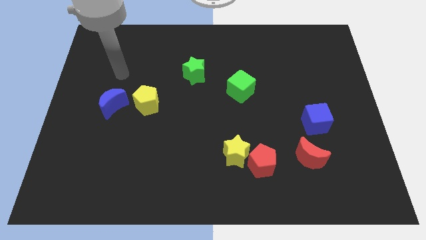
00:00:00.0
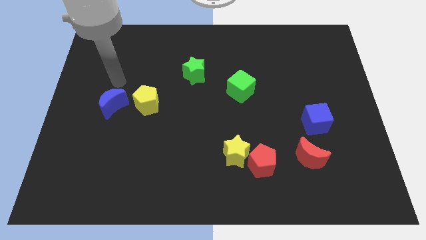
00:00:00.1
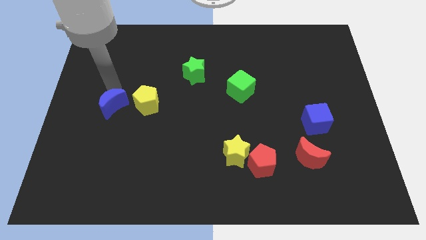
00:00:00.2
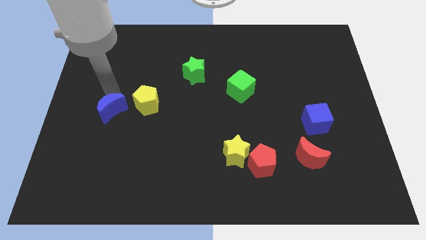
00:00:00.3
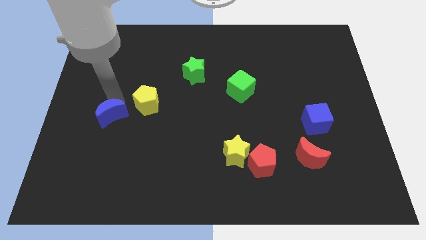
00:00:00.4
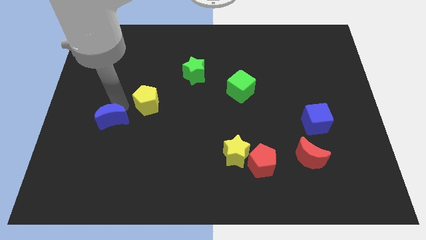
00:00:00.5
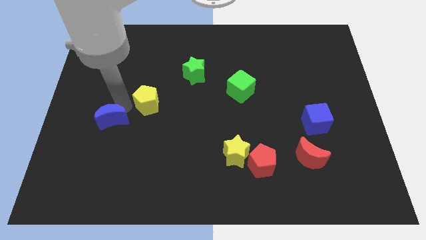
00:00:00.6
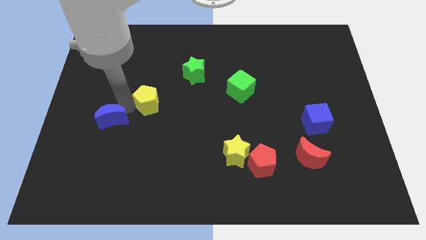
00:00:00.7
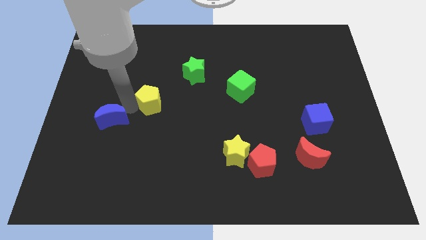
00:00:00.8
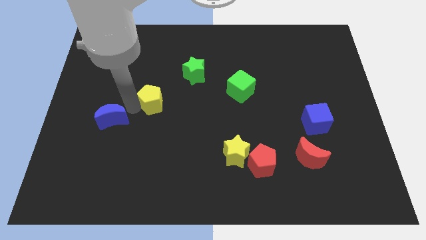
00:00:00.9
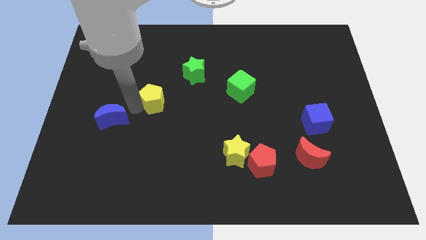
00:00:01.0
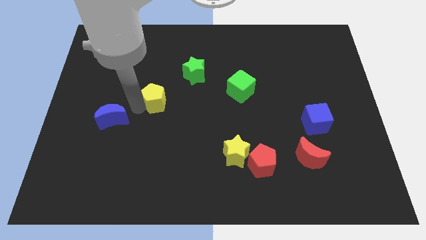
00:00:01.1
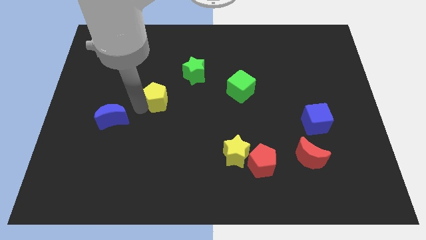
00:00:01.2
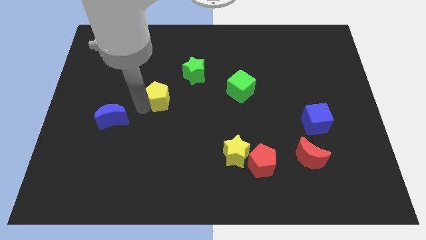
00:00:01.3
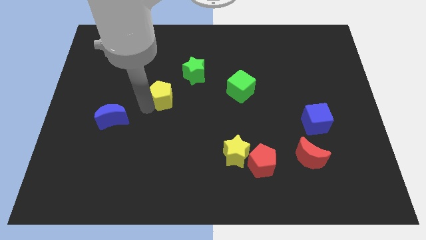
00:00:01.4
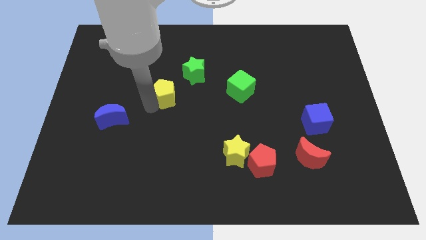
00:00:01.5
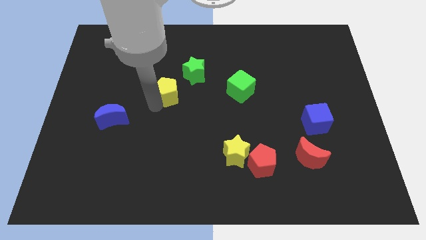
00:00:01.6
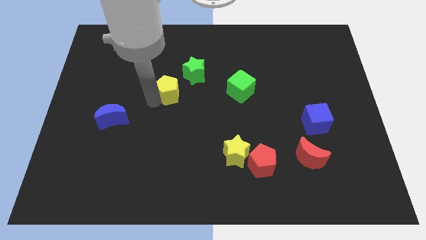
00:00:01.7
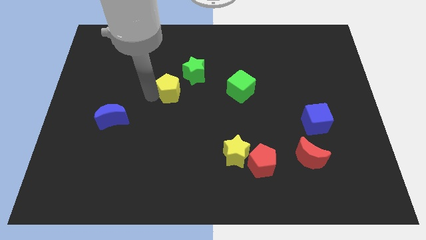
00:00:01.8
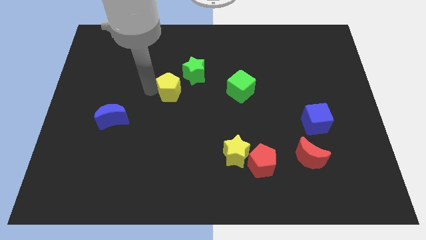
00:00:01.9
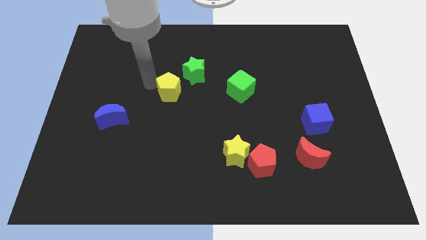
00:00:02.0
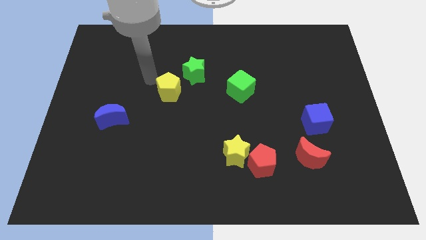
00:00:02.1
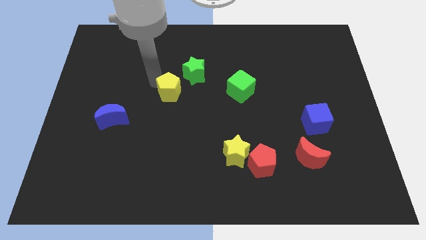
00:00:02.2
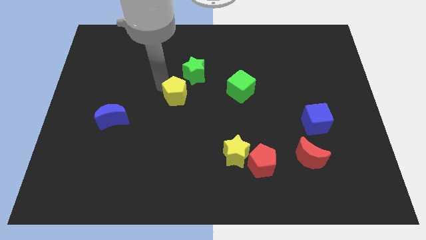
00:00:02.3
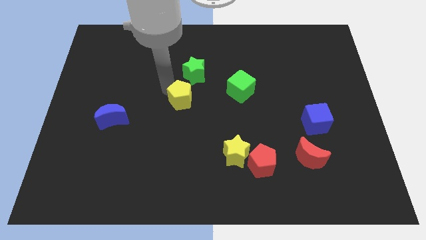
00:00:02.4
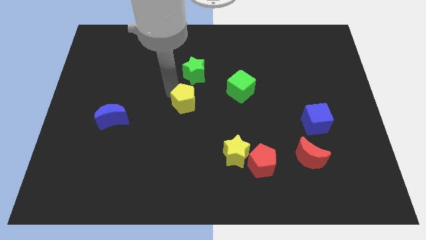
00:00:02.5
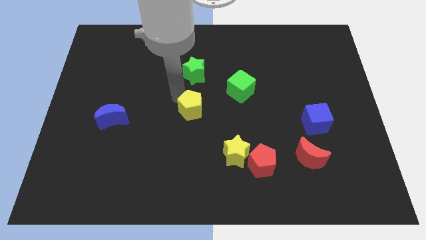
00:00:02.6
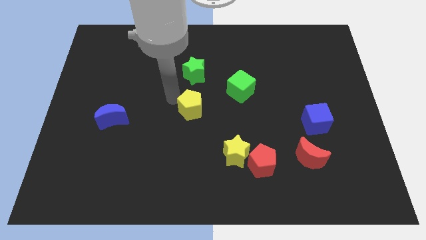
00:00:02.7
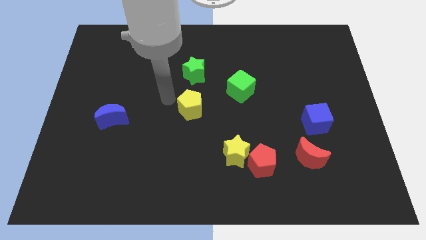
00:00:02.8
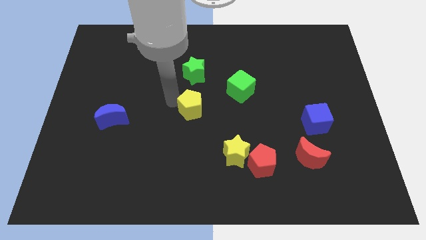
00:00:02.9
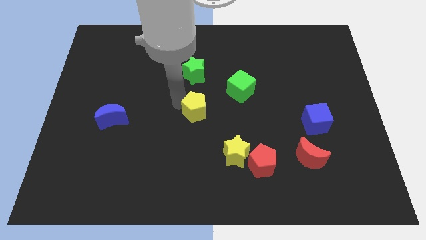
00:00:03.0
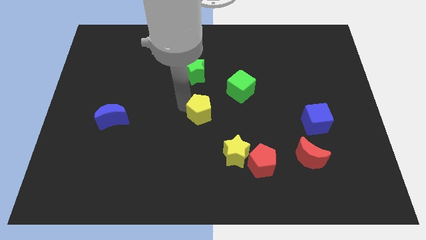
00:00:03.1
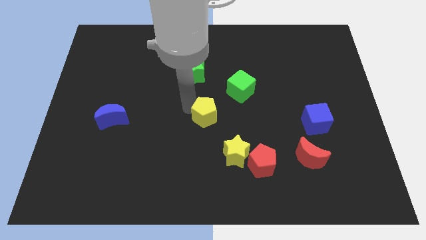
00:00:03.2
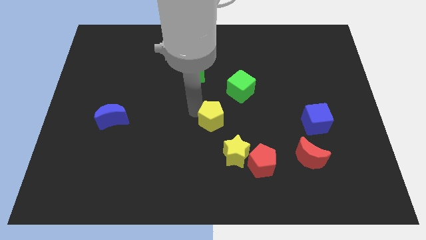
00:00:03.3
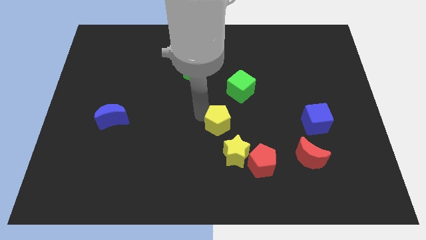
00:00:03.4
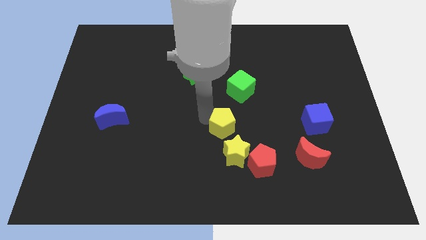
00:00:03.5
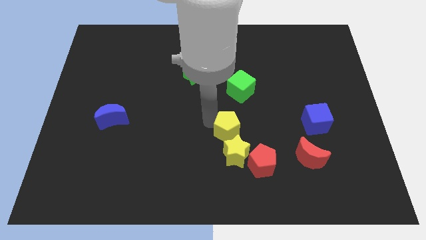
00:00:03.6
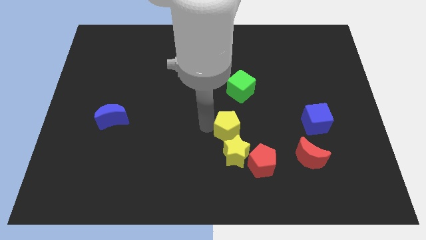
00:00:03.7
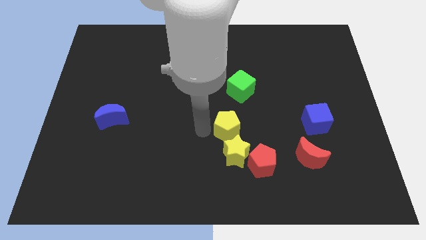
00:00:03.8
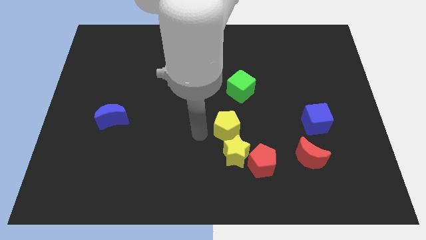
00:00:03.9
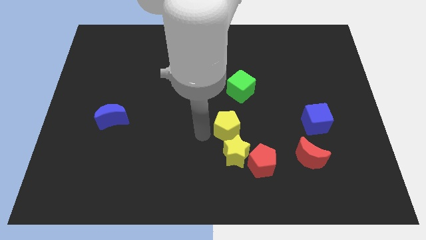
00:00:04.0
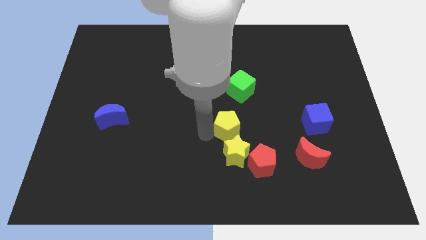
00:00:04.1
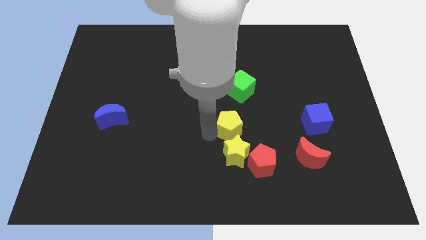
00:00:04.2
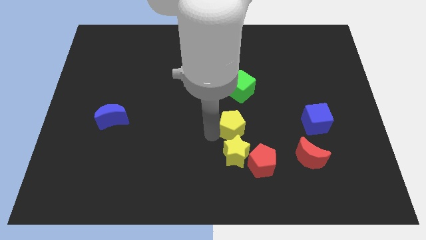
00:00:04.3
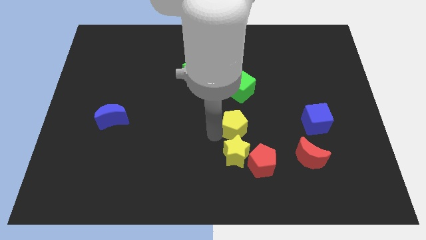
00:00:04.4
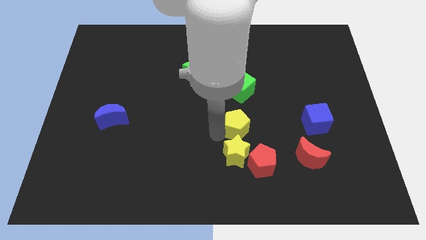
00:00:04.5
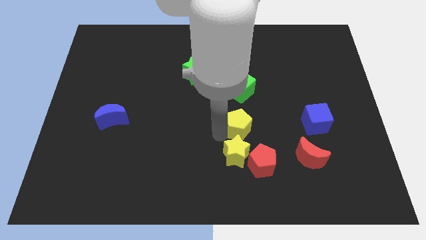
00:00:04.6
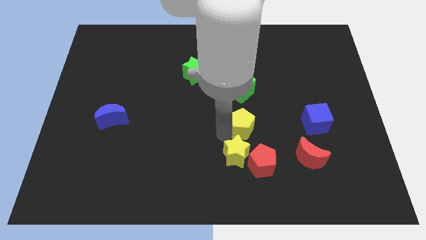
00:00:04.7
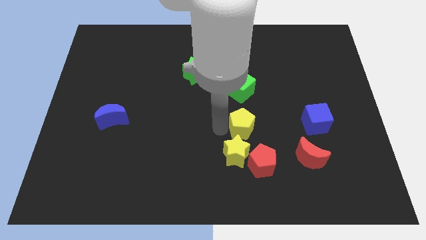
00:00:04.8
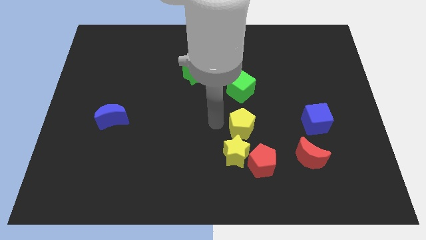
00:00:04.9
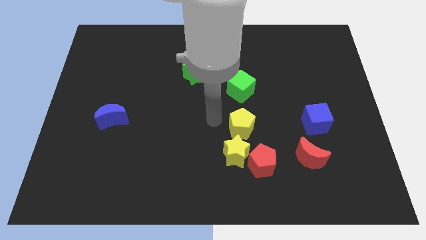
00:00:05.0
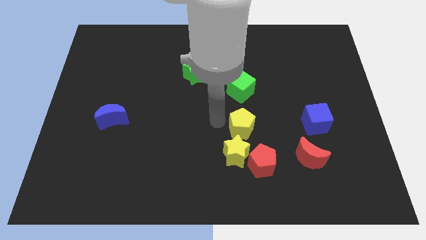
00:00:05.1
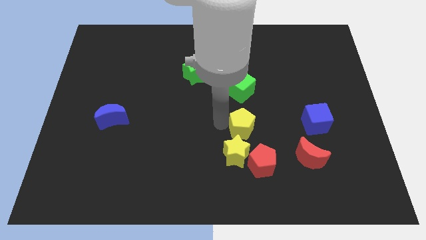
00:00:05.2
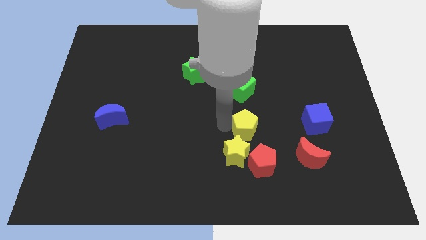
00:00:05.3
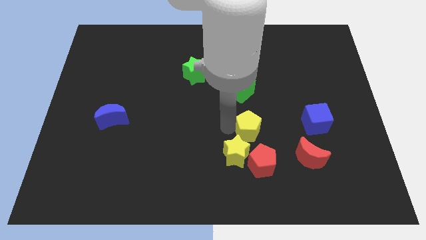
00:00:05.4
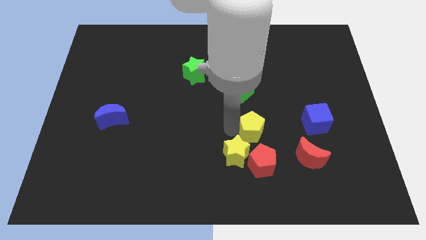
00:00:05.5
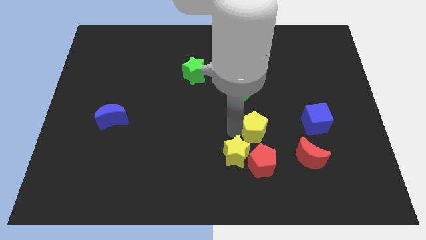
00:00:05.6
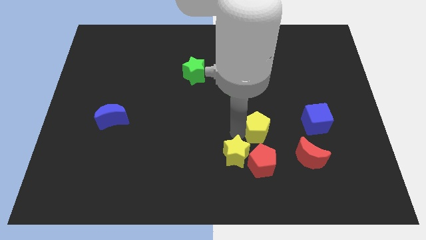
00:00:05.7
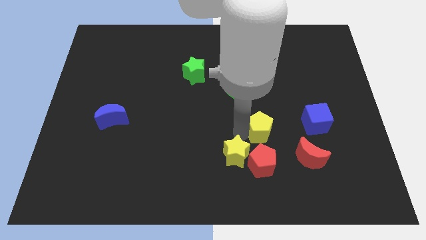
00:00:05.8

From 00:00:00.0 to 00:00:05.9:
push the yellow pentagon diagonally up and to the left of the red moon

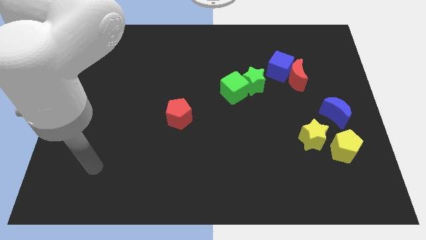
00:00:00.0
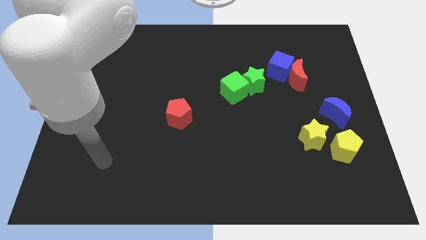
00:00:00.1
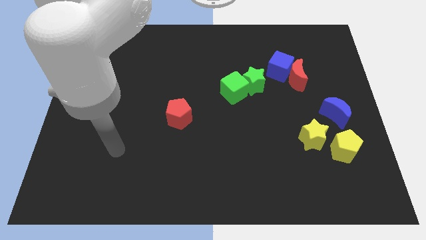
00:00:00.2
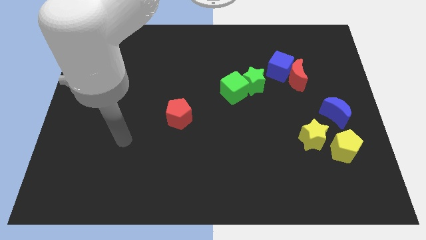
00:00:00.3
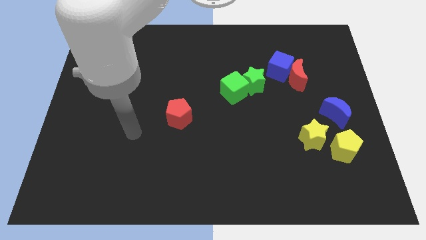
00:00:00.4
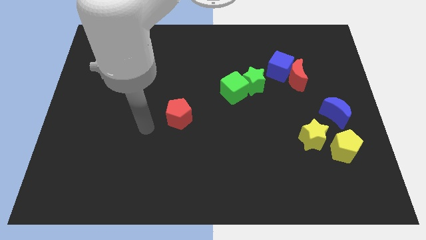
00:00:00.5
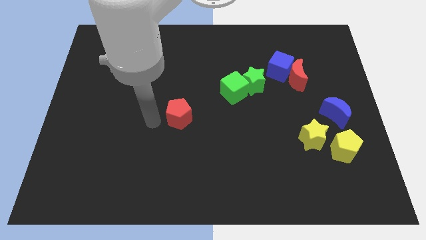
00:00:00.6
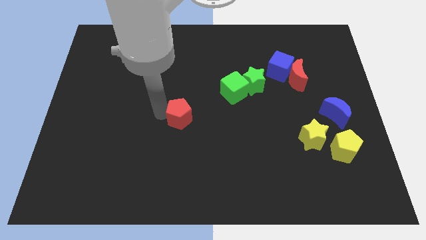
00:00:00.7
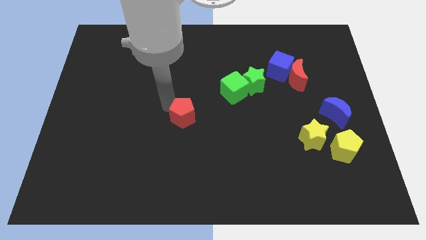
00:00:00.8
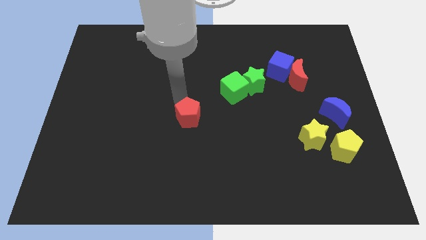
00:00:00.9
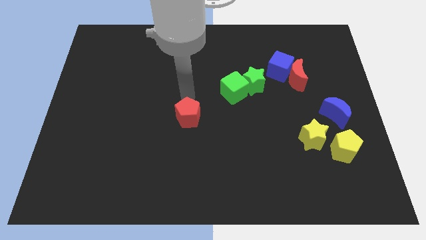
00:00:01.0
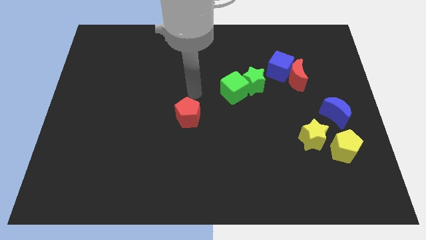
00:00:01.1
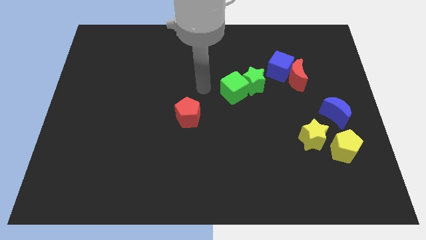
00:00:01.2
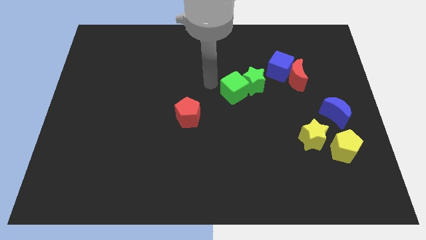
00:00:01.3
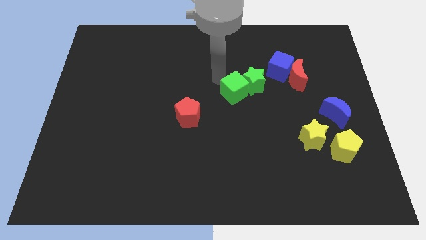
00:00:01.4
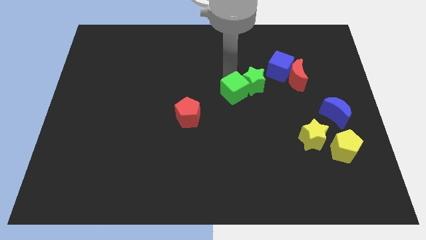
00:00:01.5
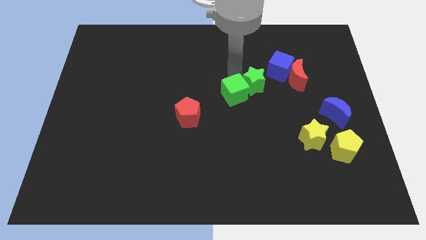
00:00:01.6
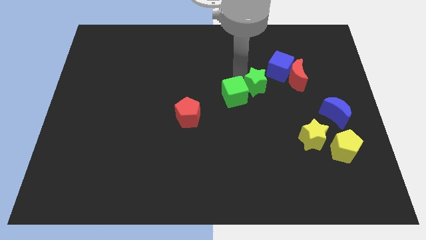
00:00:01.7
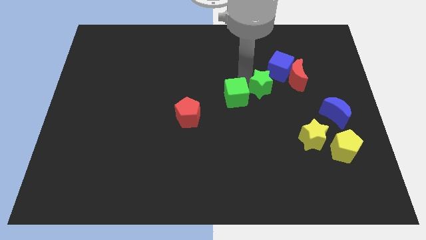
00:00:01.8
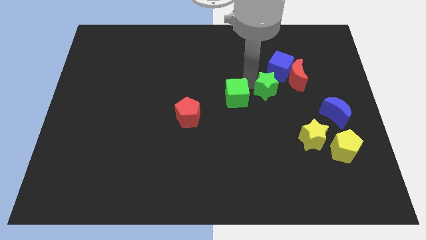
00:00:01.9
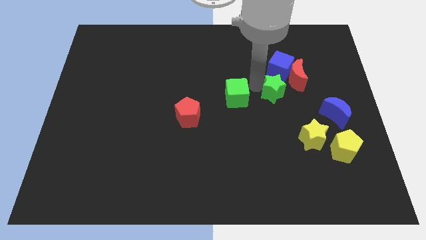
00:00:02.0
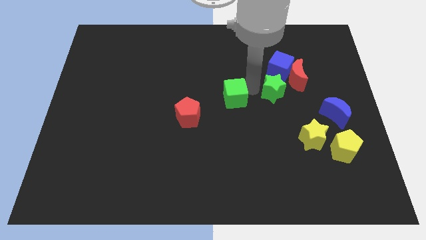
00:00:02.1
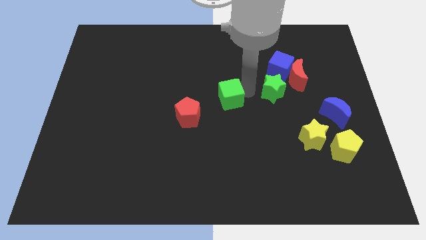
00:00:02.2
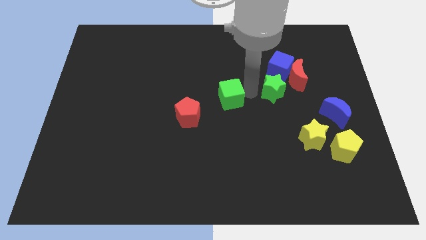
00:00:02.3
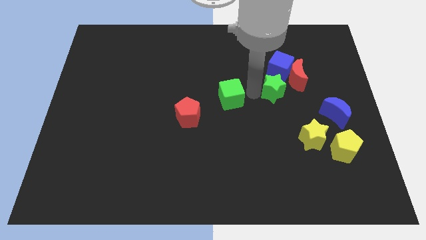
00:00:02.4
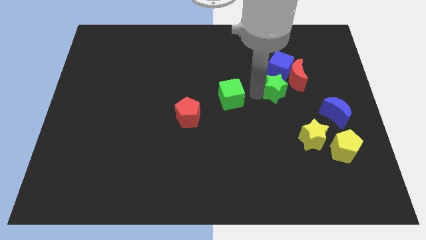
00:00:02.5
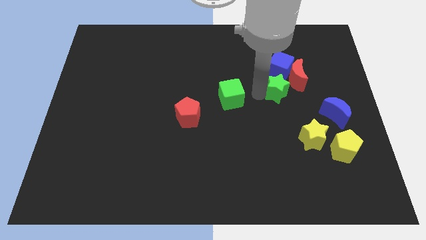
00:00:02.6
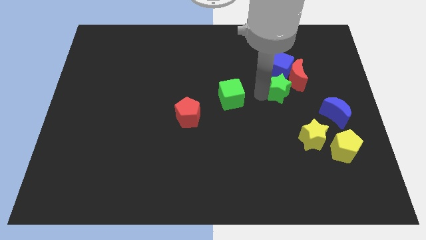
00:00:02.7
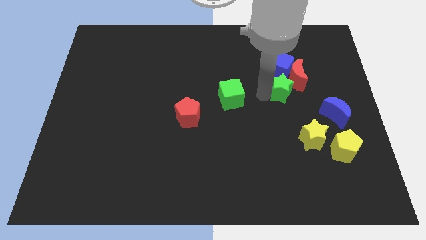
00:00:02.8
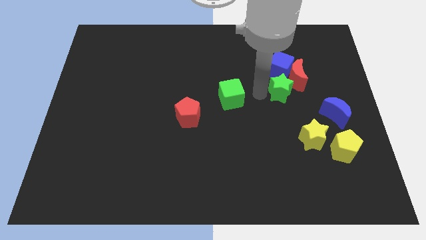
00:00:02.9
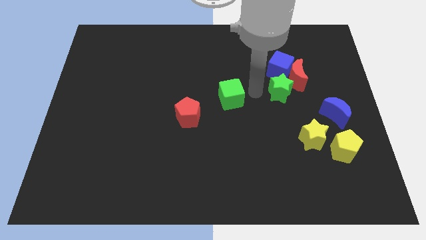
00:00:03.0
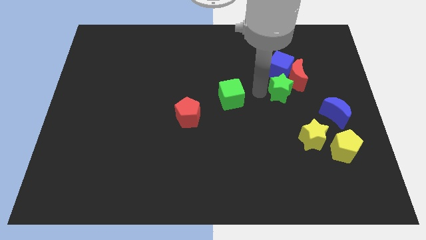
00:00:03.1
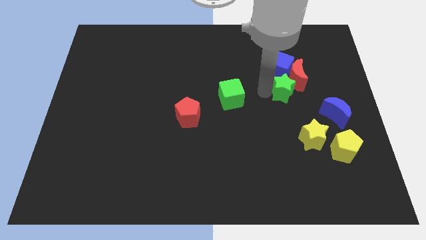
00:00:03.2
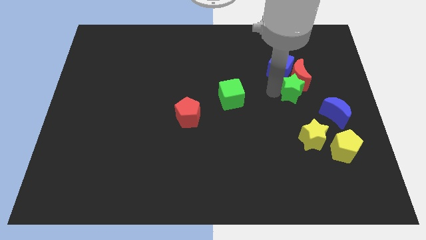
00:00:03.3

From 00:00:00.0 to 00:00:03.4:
move the green star to the bottom right side of the red moon
